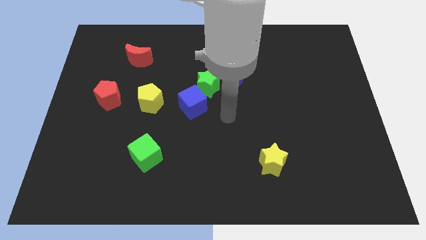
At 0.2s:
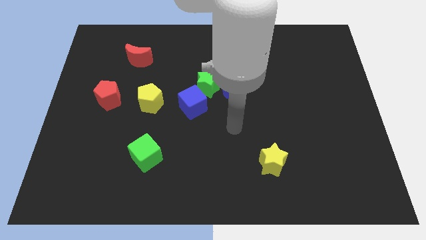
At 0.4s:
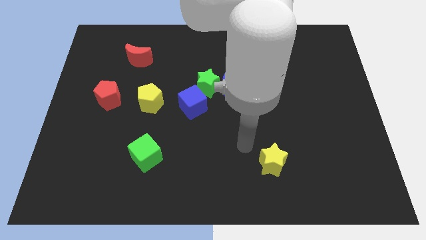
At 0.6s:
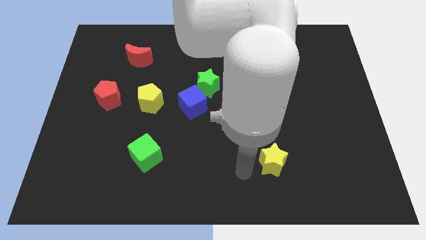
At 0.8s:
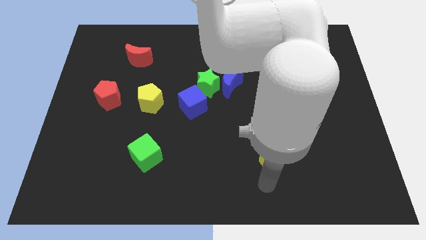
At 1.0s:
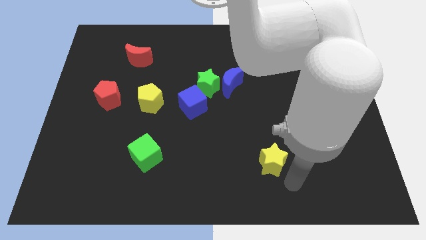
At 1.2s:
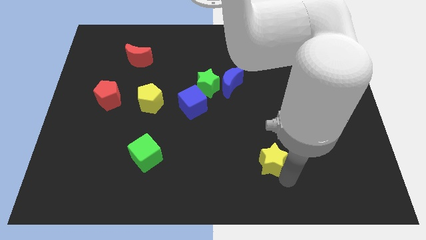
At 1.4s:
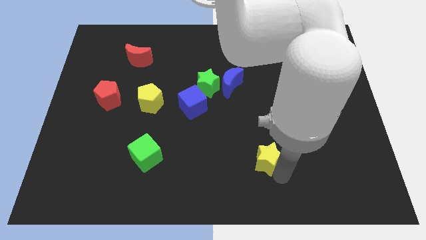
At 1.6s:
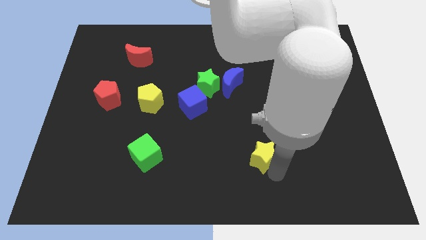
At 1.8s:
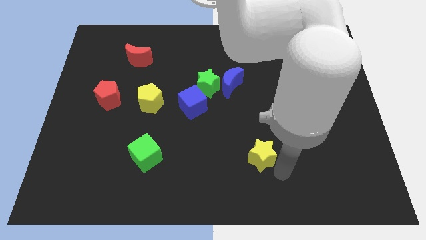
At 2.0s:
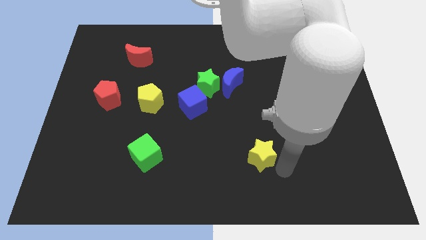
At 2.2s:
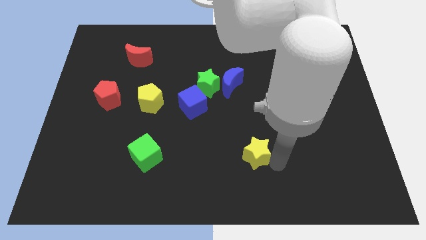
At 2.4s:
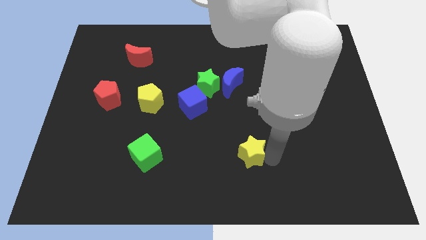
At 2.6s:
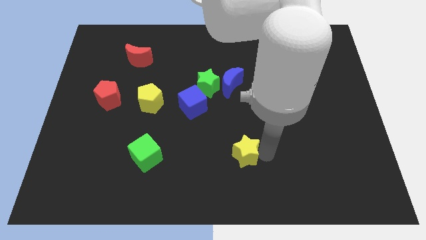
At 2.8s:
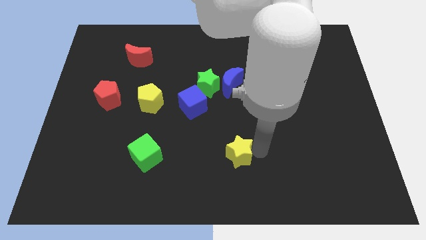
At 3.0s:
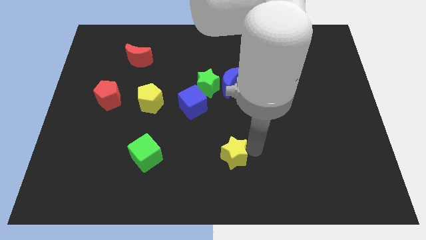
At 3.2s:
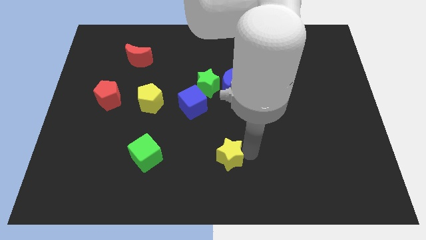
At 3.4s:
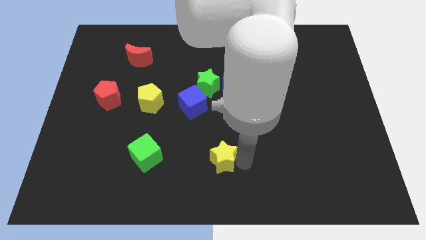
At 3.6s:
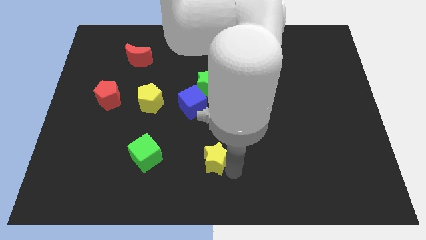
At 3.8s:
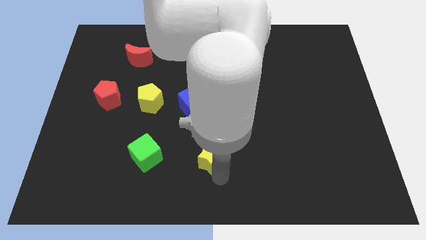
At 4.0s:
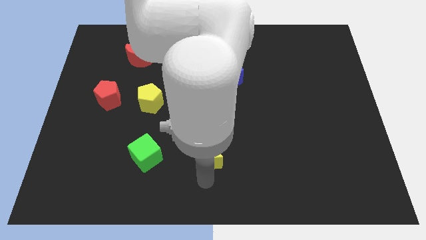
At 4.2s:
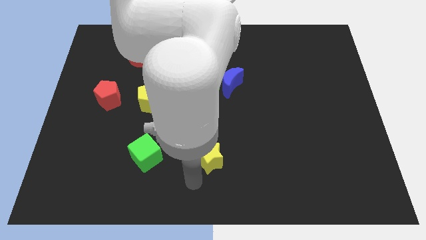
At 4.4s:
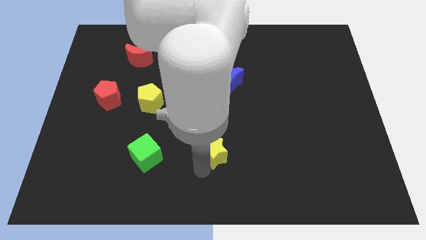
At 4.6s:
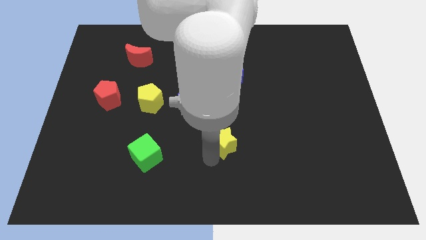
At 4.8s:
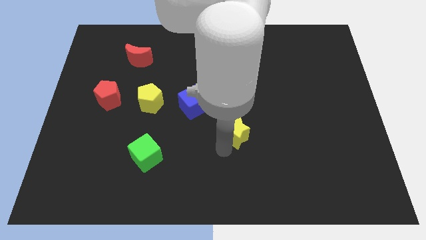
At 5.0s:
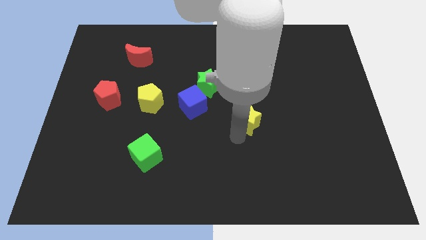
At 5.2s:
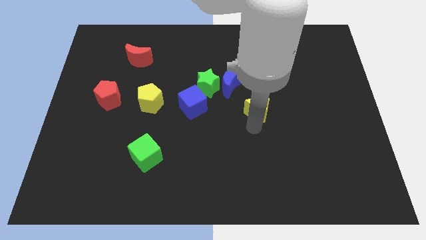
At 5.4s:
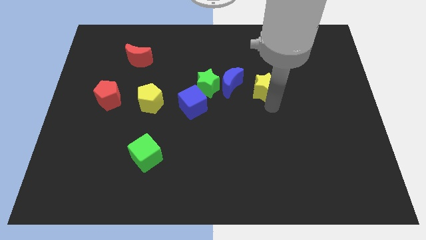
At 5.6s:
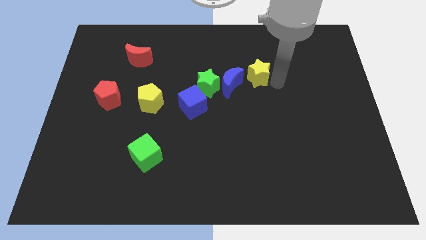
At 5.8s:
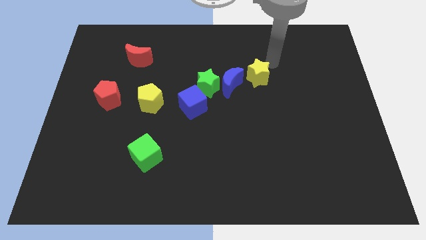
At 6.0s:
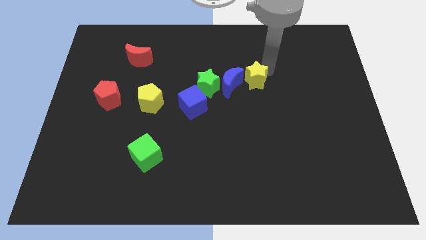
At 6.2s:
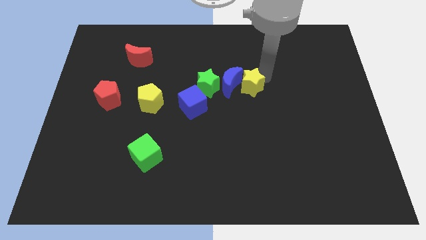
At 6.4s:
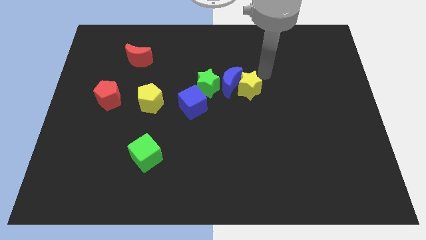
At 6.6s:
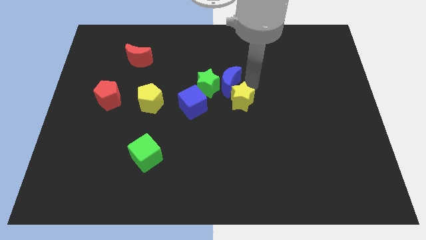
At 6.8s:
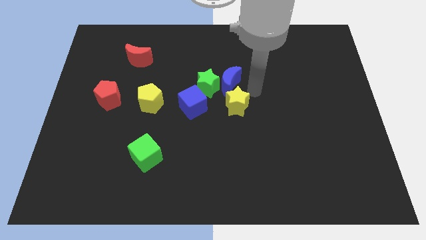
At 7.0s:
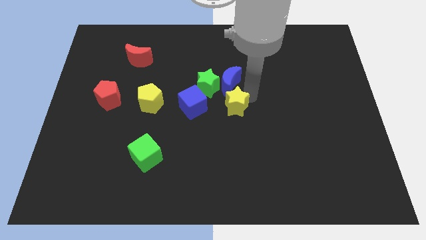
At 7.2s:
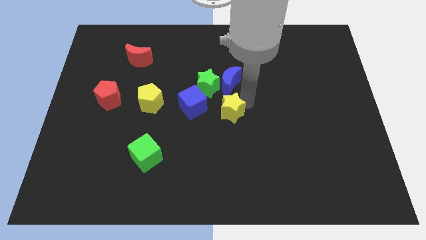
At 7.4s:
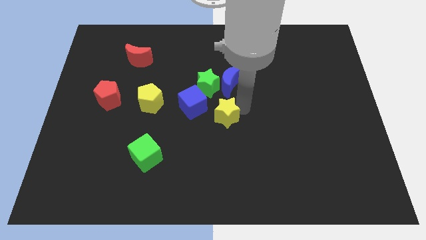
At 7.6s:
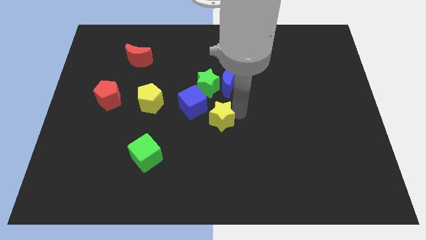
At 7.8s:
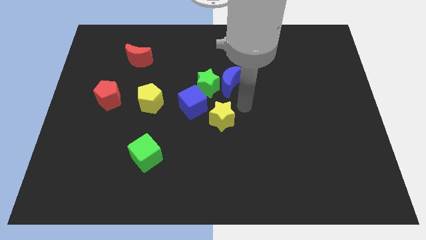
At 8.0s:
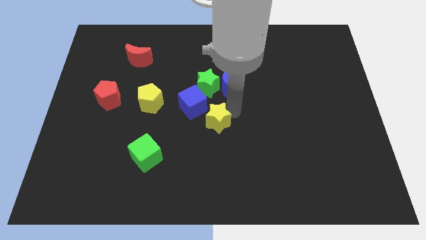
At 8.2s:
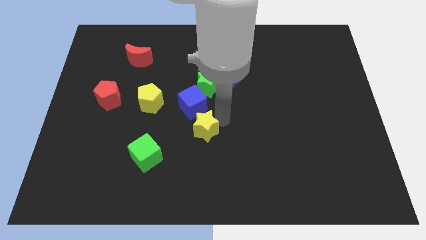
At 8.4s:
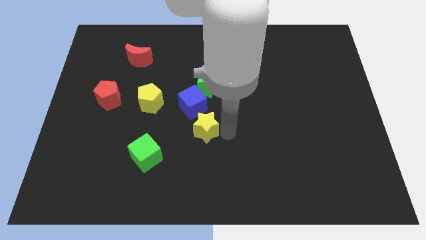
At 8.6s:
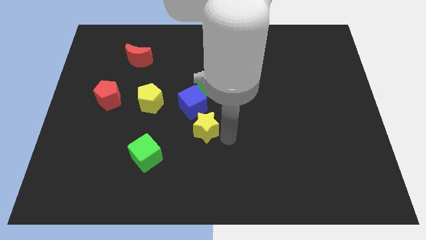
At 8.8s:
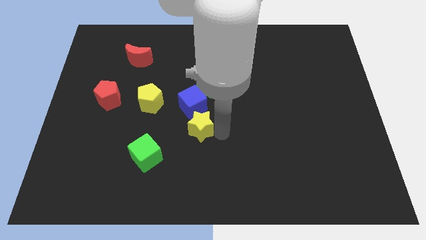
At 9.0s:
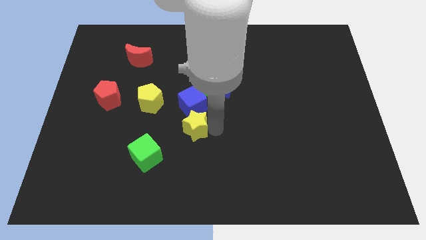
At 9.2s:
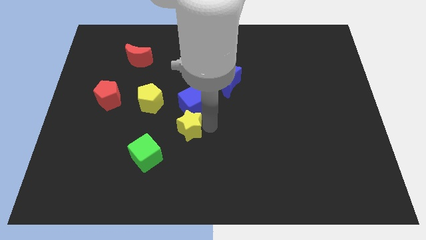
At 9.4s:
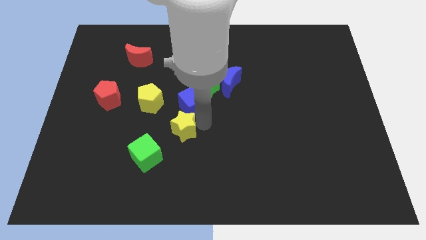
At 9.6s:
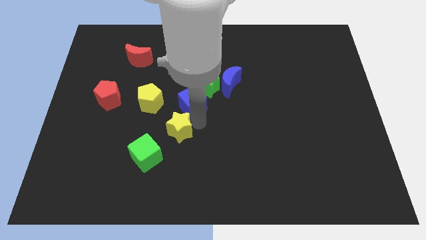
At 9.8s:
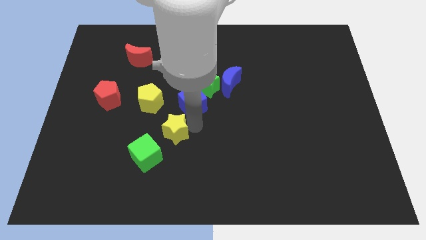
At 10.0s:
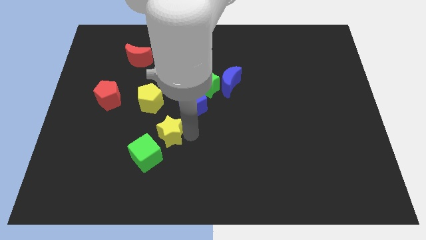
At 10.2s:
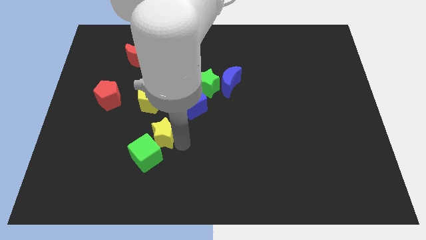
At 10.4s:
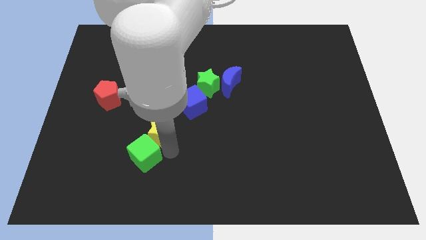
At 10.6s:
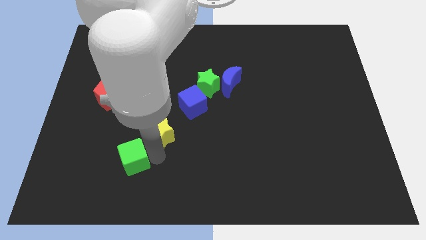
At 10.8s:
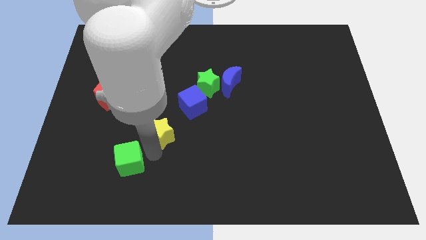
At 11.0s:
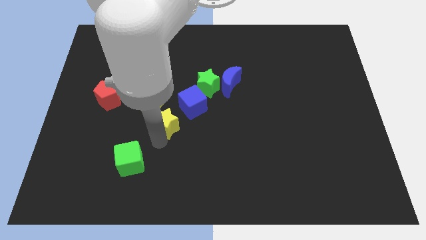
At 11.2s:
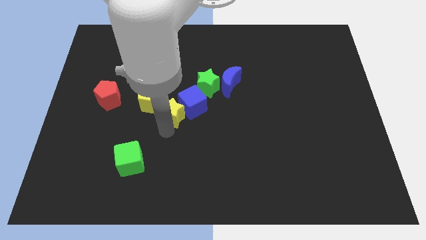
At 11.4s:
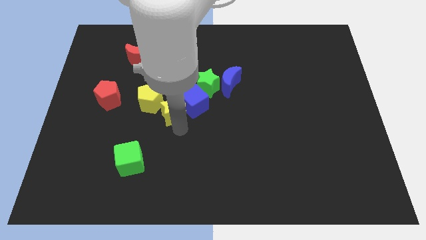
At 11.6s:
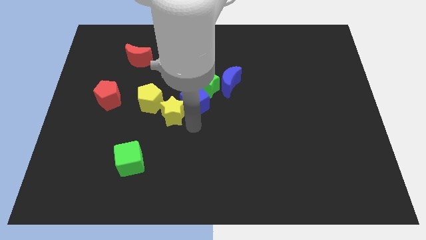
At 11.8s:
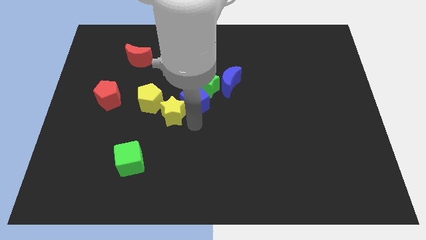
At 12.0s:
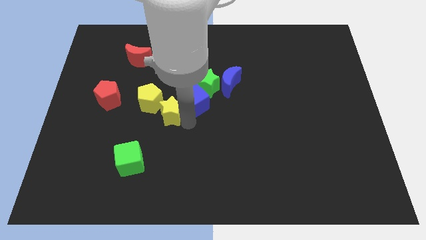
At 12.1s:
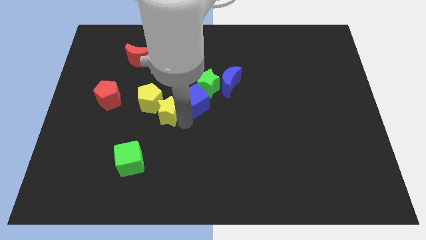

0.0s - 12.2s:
put the yellow star close to the yellow pentagon

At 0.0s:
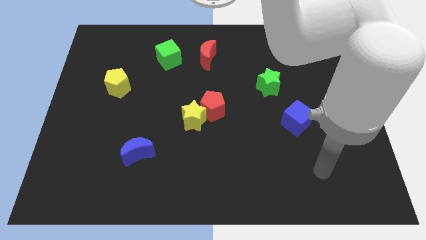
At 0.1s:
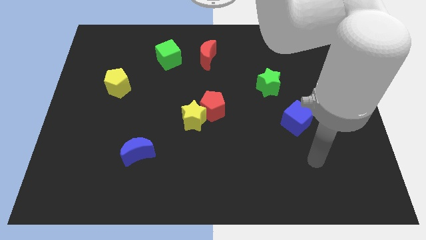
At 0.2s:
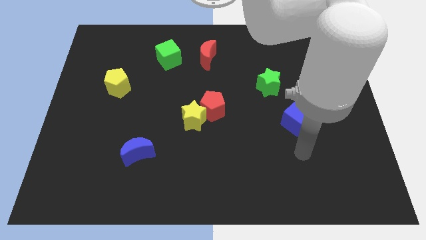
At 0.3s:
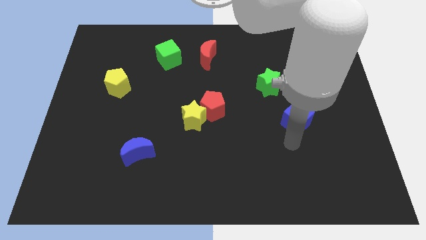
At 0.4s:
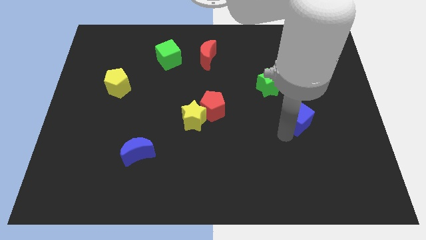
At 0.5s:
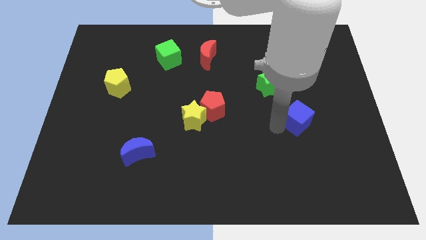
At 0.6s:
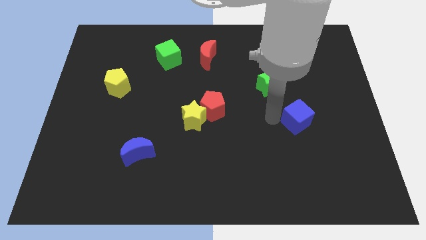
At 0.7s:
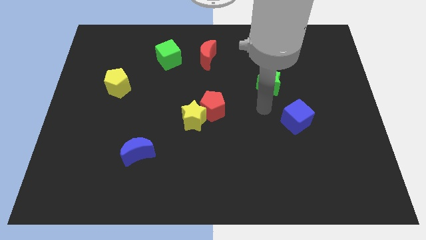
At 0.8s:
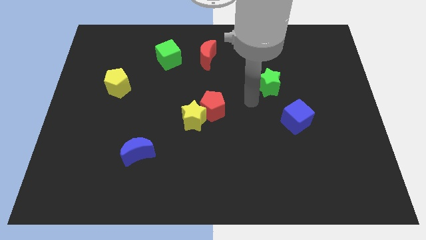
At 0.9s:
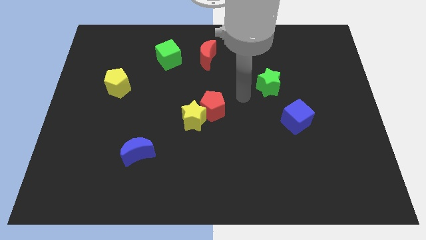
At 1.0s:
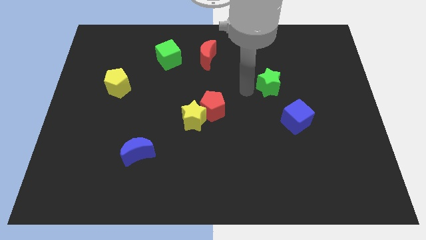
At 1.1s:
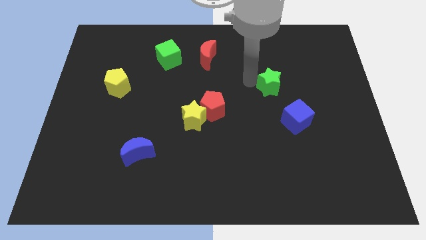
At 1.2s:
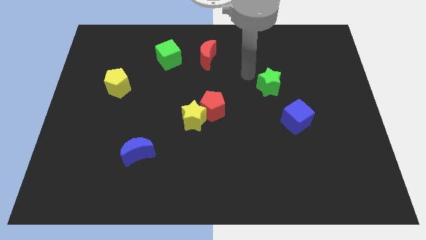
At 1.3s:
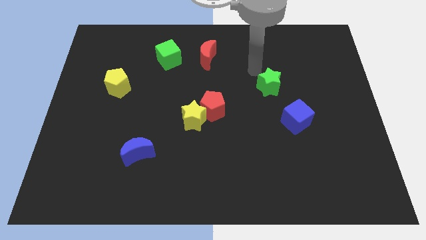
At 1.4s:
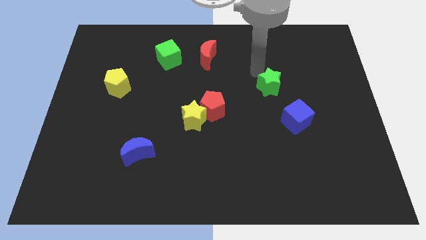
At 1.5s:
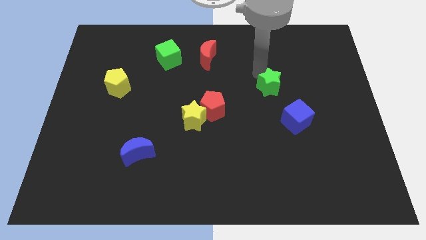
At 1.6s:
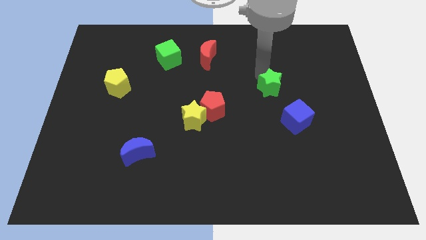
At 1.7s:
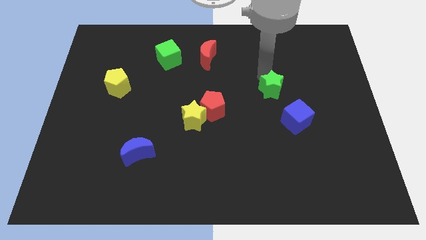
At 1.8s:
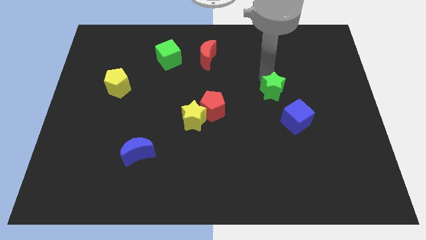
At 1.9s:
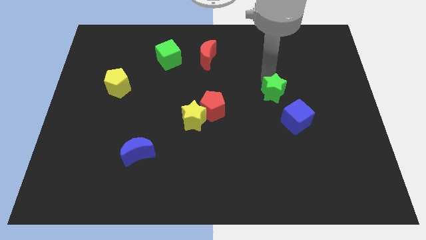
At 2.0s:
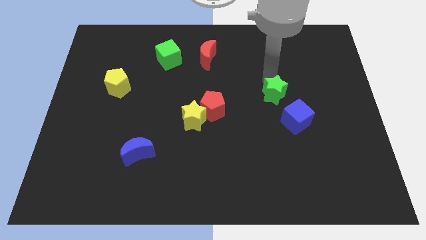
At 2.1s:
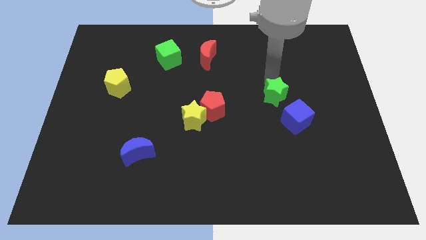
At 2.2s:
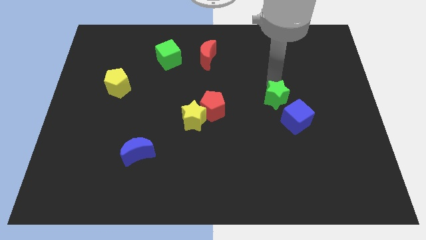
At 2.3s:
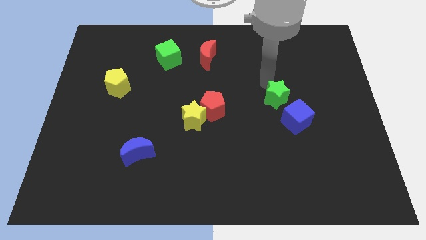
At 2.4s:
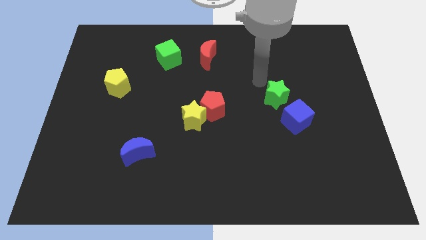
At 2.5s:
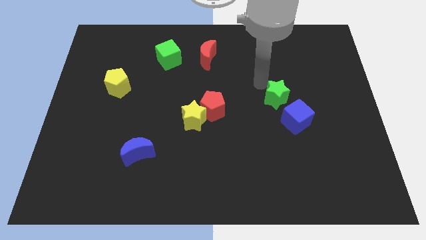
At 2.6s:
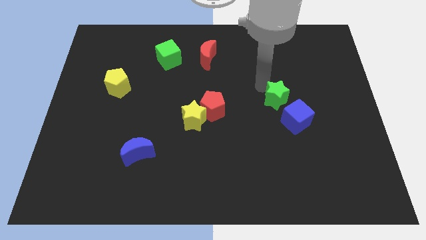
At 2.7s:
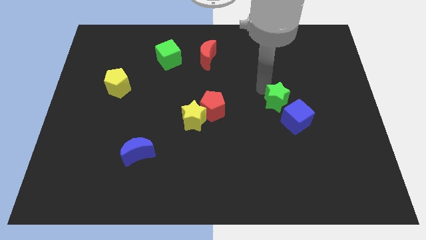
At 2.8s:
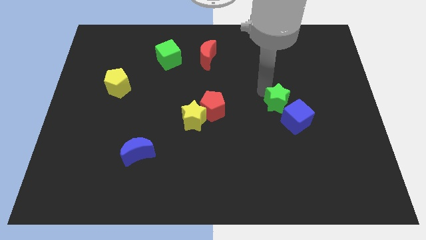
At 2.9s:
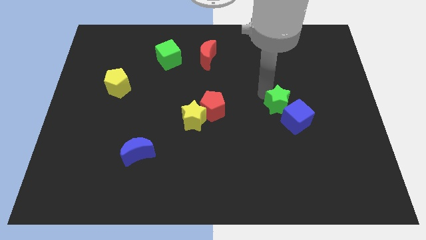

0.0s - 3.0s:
move the green star next to the blue cube
